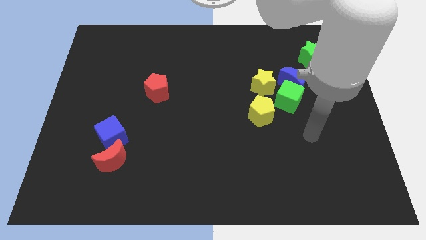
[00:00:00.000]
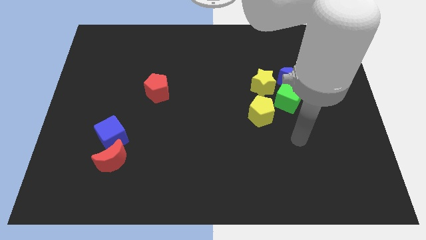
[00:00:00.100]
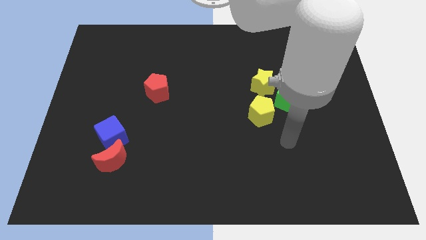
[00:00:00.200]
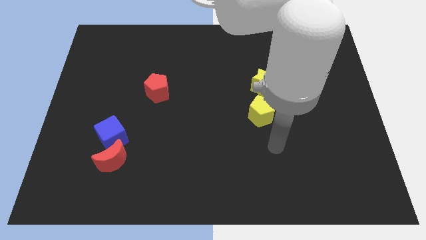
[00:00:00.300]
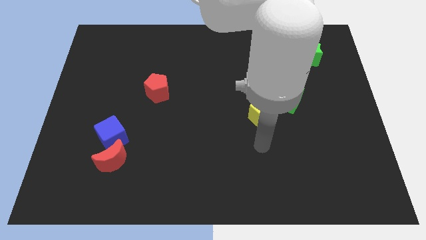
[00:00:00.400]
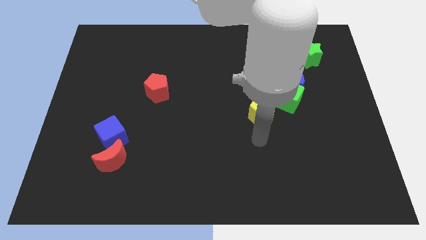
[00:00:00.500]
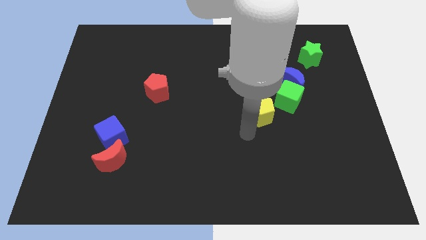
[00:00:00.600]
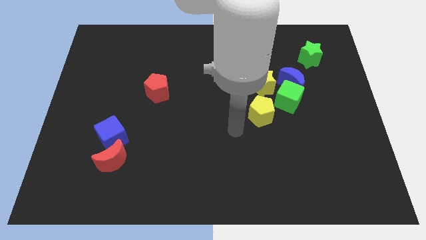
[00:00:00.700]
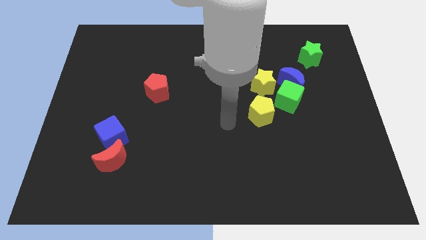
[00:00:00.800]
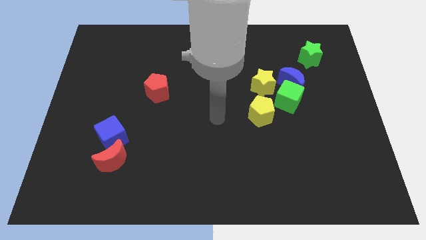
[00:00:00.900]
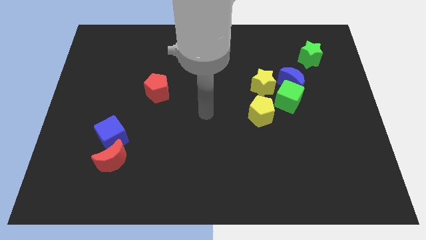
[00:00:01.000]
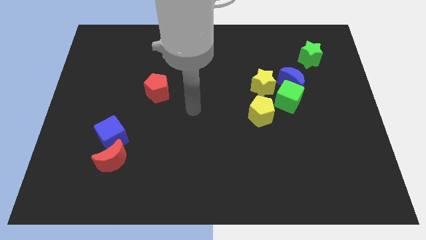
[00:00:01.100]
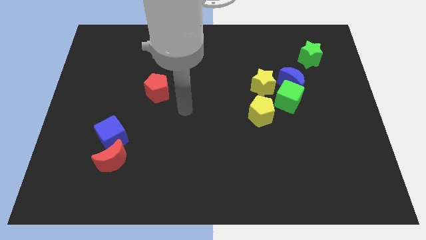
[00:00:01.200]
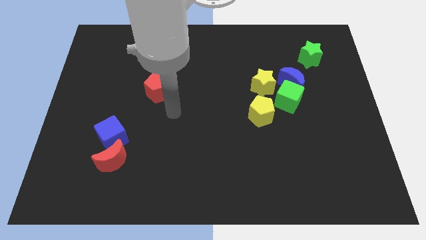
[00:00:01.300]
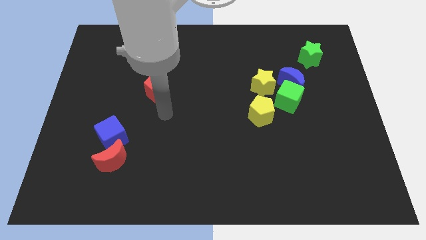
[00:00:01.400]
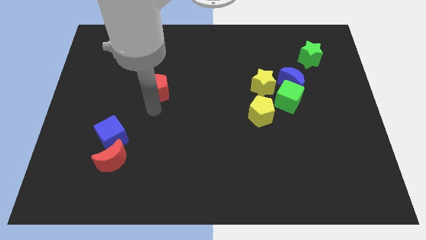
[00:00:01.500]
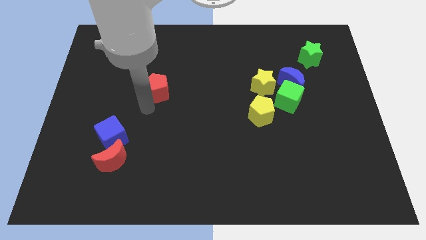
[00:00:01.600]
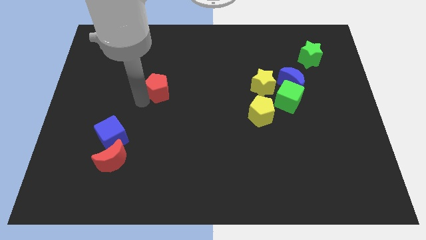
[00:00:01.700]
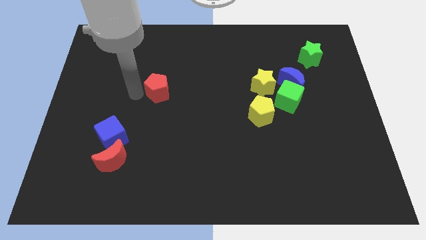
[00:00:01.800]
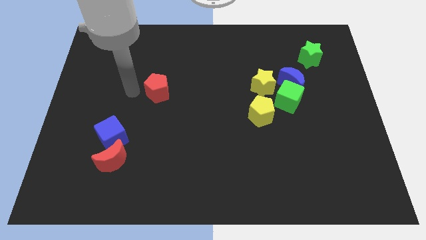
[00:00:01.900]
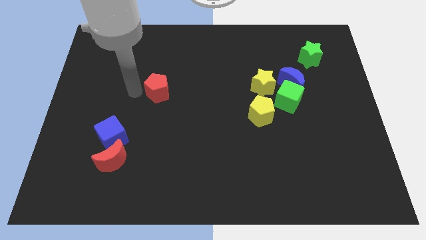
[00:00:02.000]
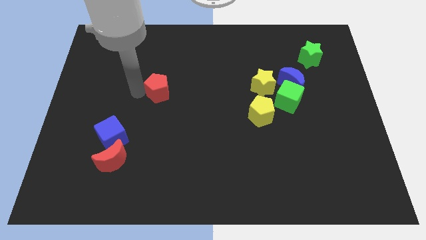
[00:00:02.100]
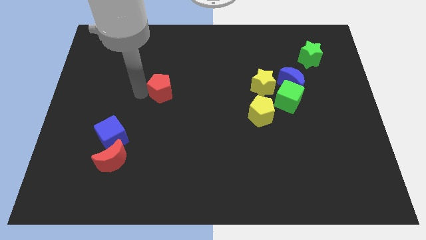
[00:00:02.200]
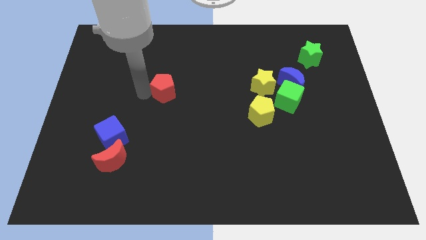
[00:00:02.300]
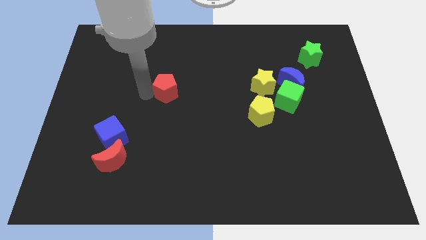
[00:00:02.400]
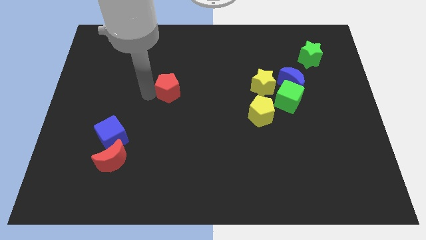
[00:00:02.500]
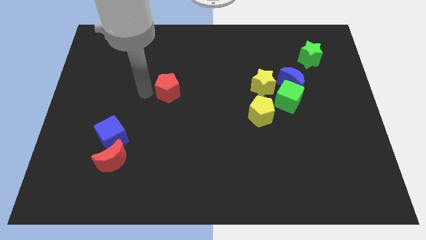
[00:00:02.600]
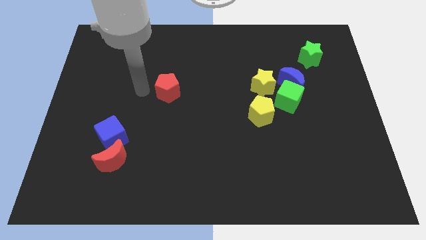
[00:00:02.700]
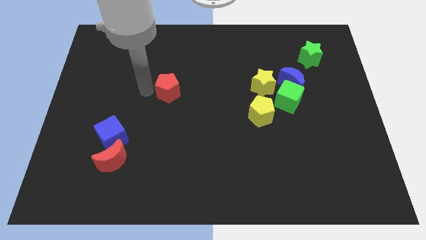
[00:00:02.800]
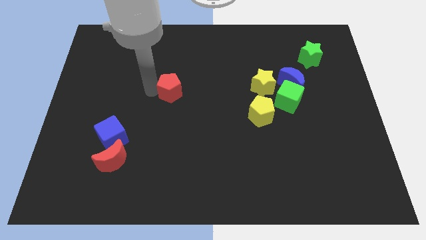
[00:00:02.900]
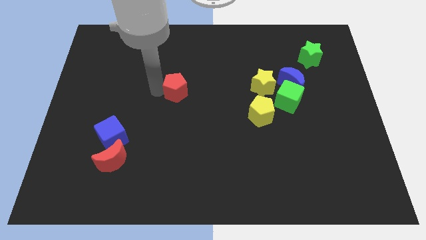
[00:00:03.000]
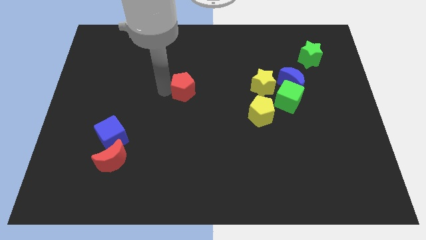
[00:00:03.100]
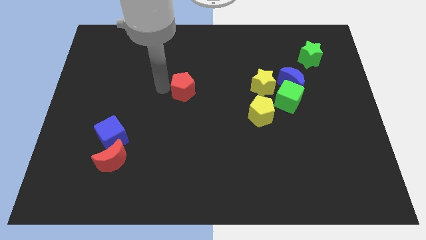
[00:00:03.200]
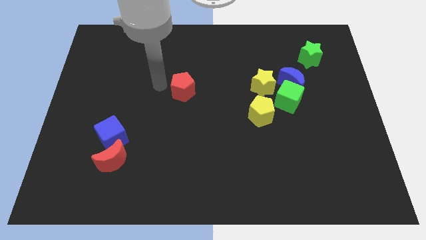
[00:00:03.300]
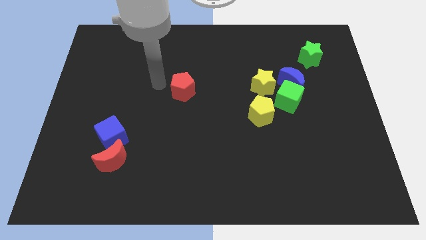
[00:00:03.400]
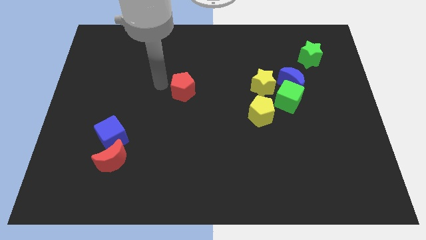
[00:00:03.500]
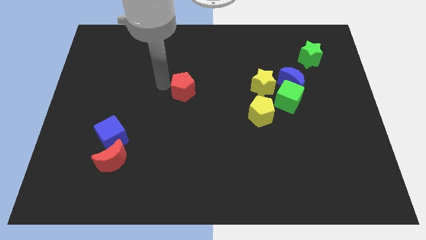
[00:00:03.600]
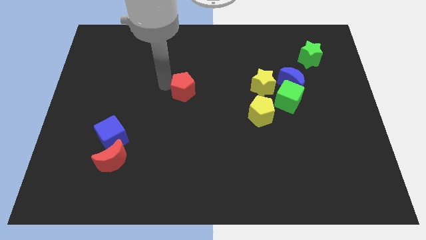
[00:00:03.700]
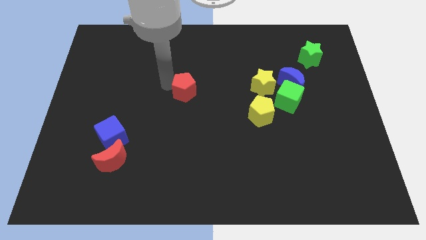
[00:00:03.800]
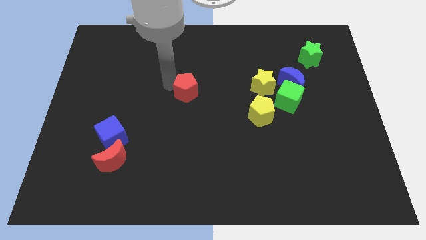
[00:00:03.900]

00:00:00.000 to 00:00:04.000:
push the red pentagon a little right

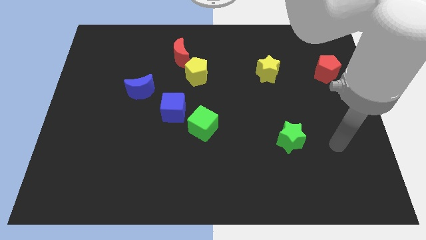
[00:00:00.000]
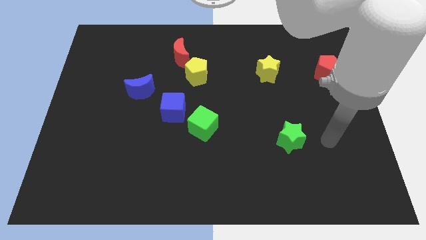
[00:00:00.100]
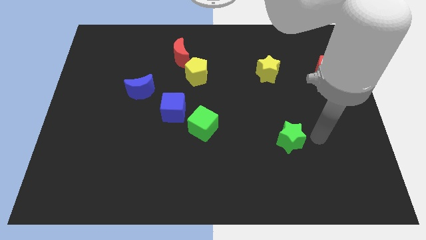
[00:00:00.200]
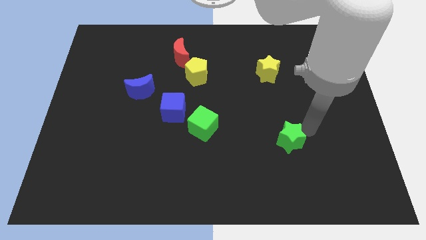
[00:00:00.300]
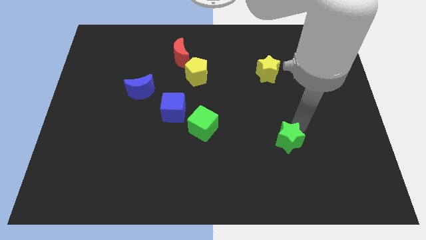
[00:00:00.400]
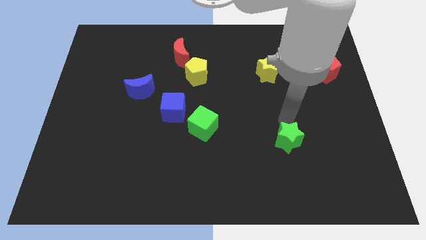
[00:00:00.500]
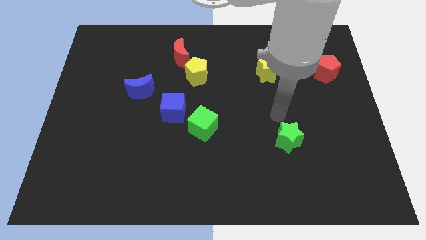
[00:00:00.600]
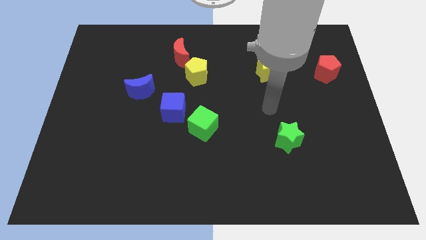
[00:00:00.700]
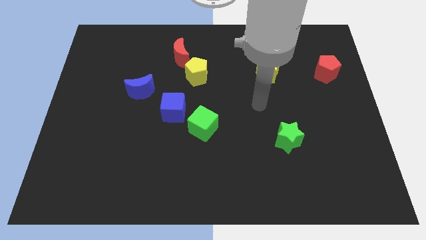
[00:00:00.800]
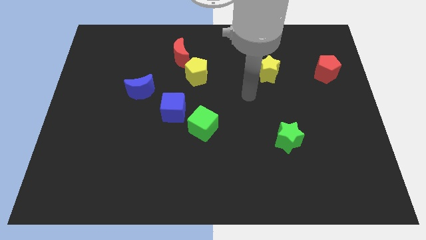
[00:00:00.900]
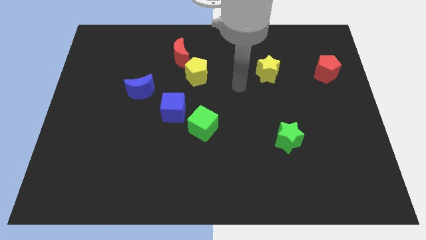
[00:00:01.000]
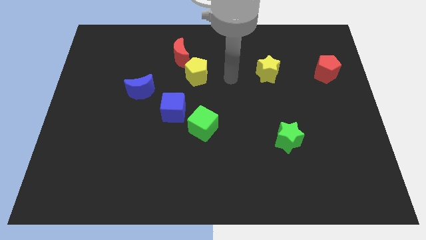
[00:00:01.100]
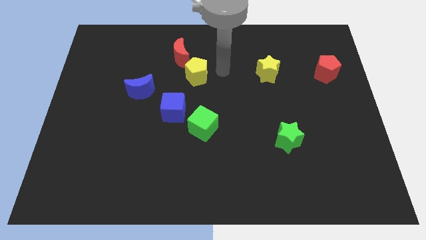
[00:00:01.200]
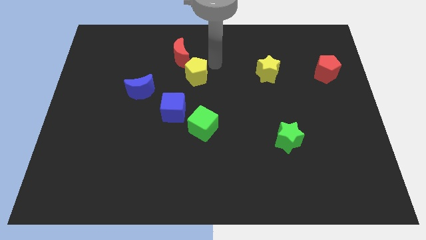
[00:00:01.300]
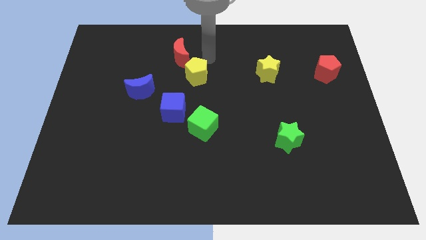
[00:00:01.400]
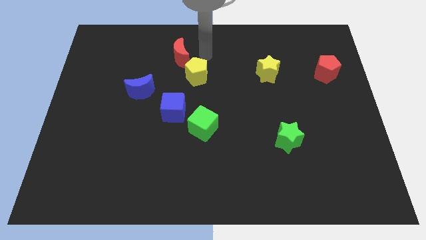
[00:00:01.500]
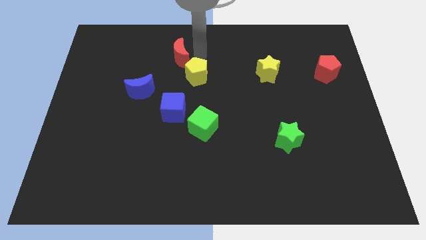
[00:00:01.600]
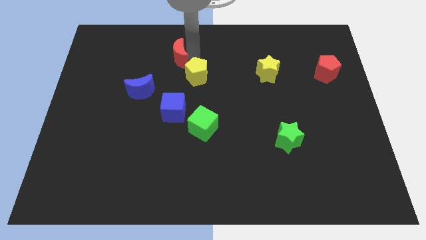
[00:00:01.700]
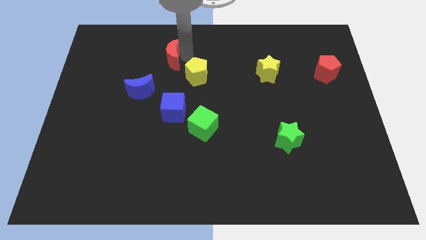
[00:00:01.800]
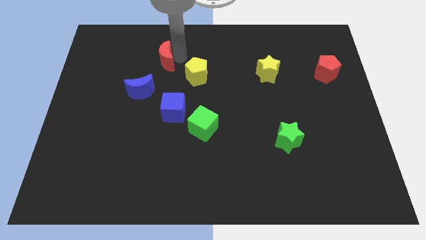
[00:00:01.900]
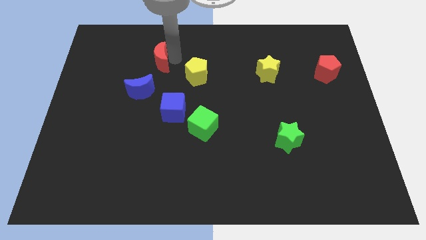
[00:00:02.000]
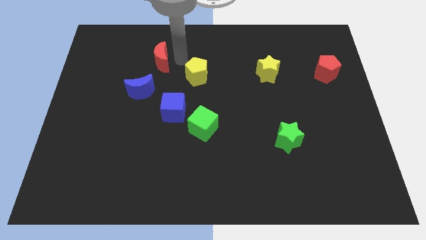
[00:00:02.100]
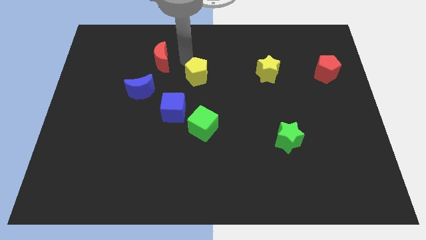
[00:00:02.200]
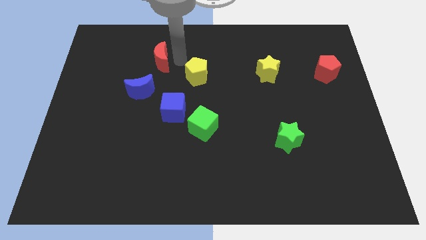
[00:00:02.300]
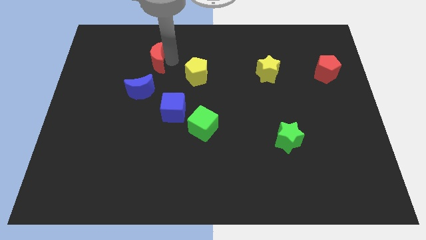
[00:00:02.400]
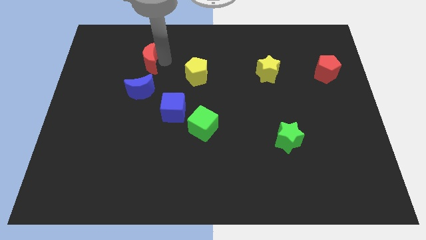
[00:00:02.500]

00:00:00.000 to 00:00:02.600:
move the red moon left a little

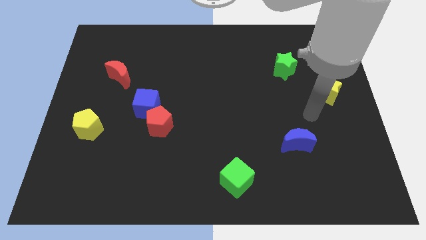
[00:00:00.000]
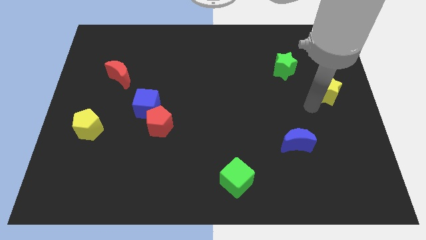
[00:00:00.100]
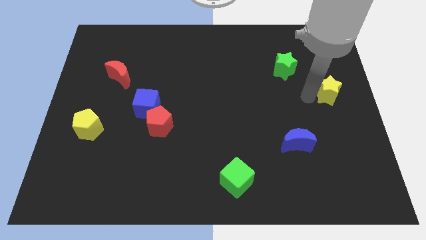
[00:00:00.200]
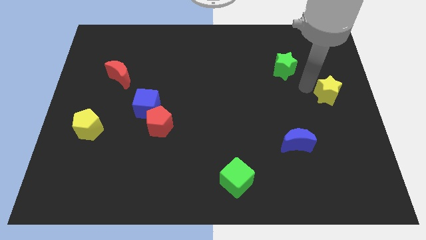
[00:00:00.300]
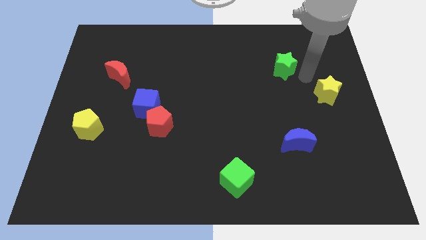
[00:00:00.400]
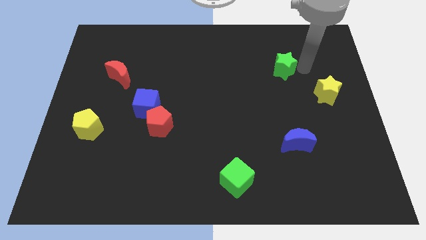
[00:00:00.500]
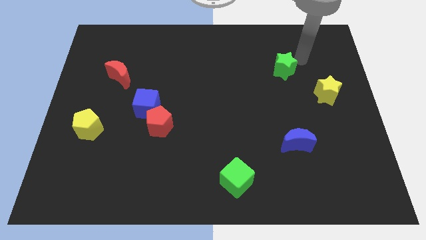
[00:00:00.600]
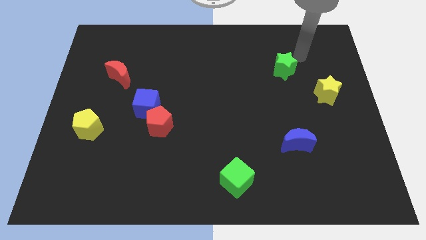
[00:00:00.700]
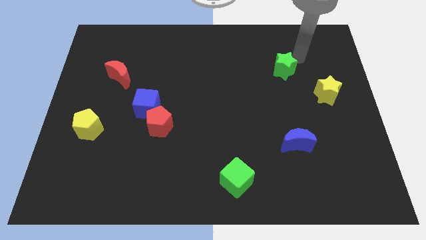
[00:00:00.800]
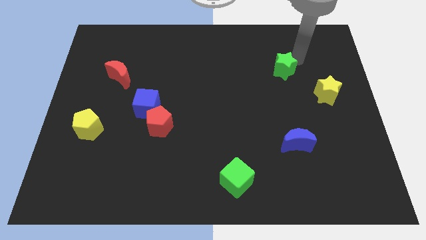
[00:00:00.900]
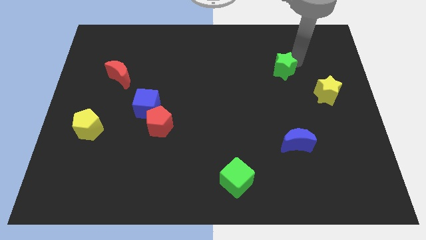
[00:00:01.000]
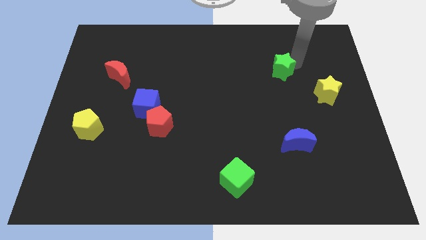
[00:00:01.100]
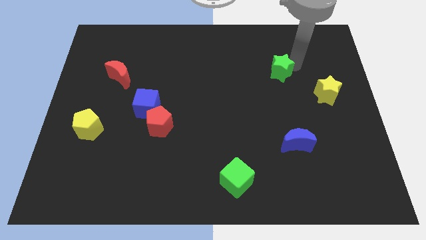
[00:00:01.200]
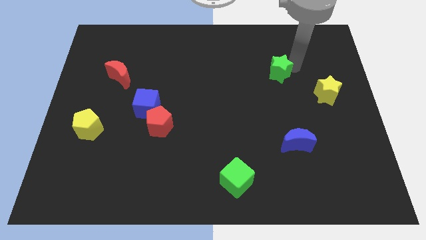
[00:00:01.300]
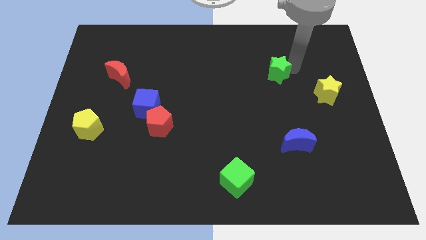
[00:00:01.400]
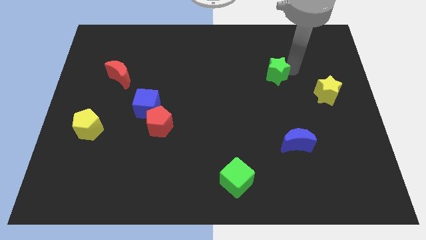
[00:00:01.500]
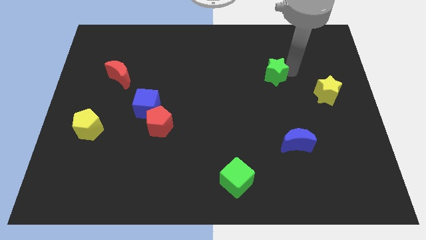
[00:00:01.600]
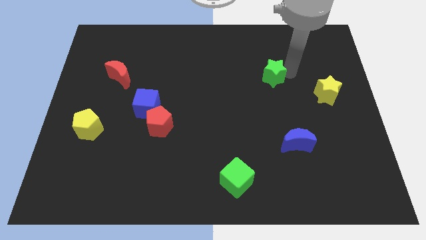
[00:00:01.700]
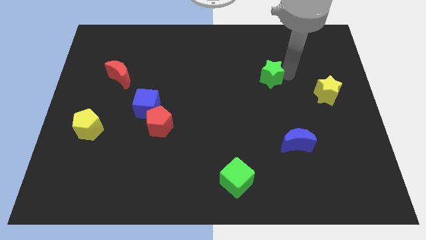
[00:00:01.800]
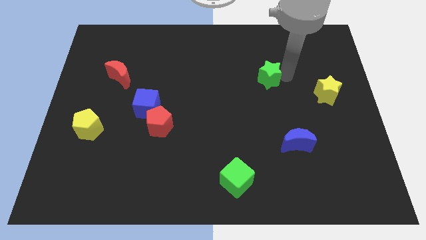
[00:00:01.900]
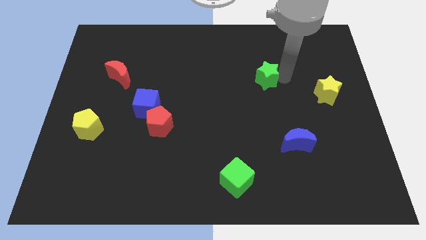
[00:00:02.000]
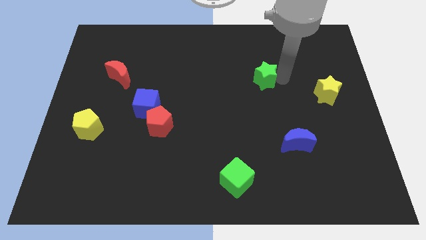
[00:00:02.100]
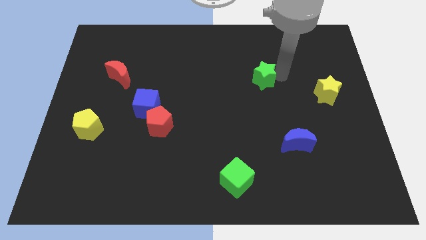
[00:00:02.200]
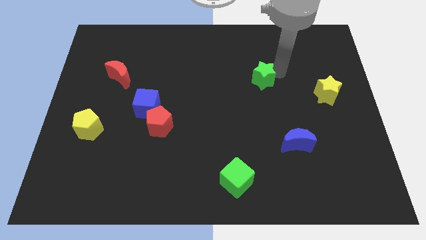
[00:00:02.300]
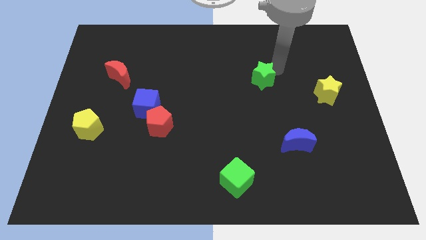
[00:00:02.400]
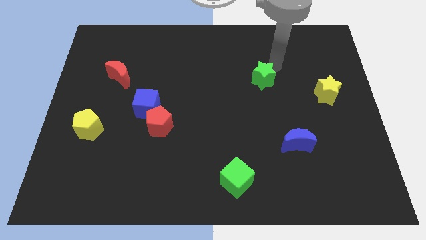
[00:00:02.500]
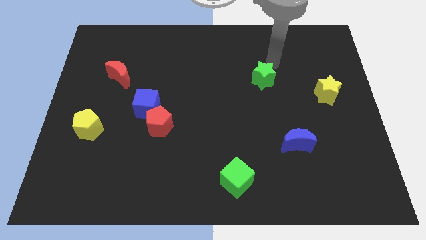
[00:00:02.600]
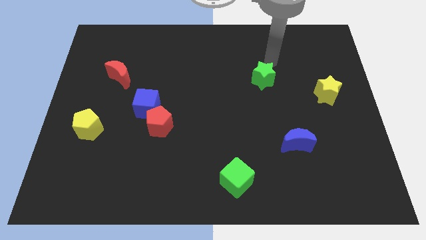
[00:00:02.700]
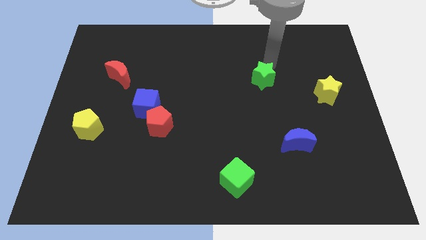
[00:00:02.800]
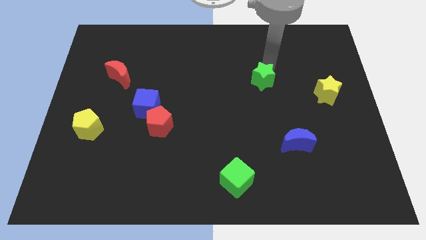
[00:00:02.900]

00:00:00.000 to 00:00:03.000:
push the green star down and then left a little bit
